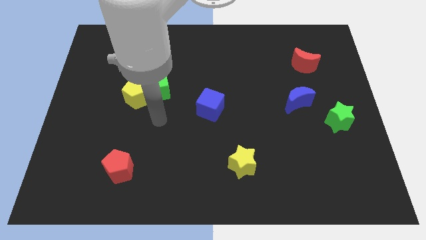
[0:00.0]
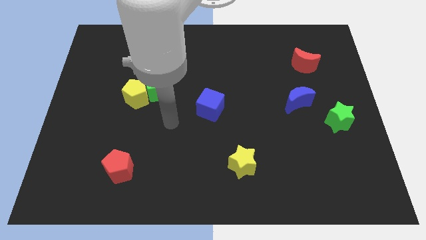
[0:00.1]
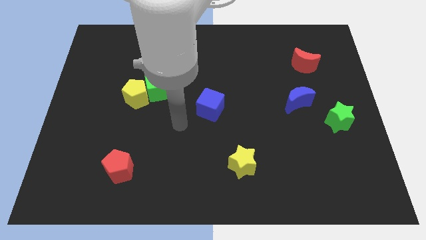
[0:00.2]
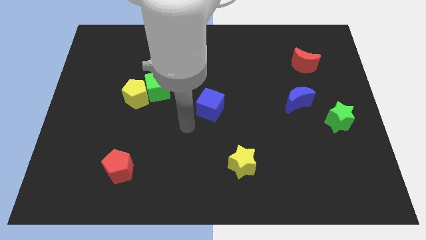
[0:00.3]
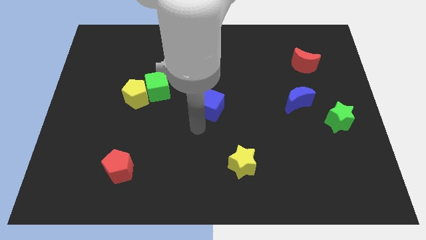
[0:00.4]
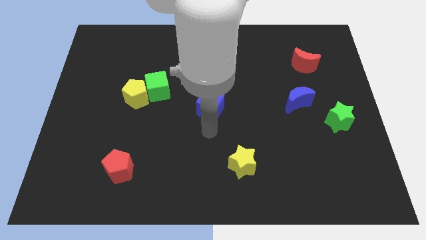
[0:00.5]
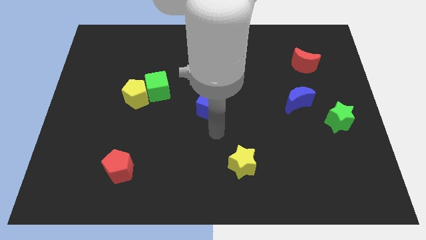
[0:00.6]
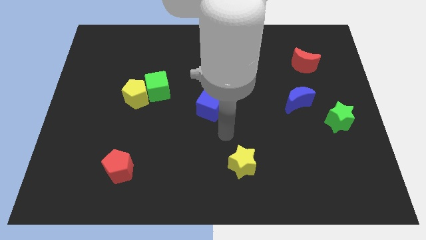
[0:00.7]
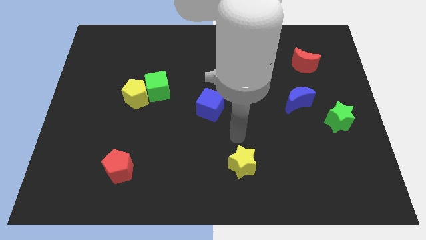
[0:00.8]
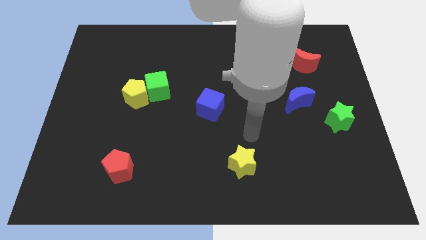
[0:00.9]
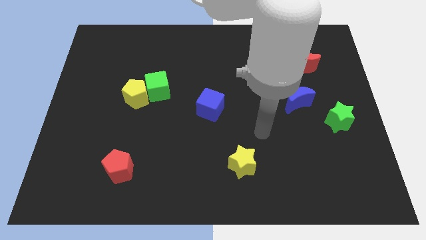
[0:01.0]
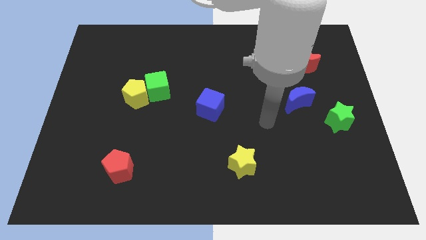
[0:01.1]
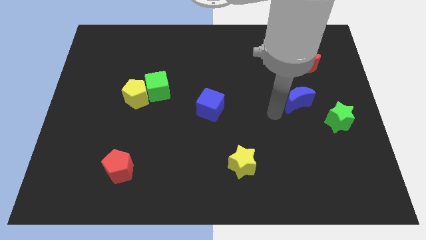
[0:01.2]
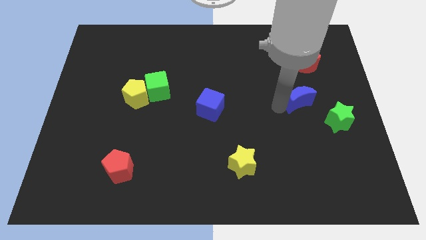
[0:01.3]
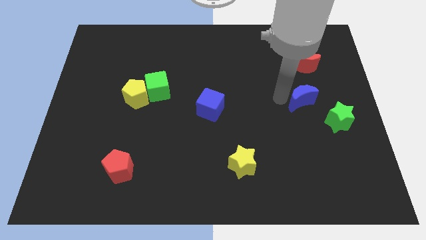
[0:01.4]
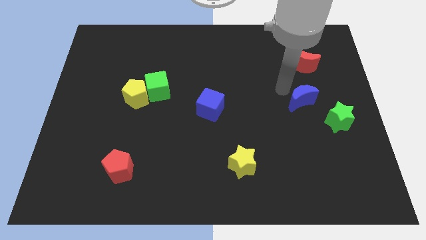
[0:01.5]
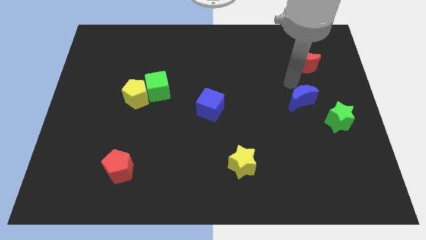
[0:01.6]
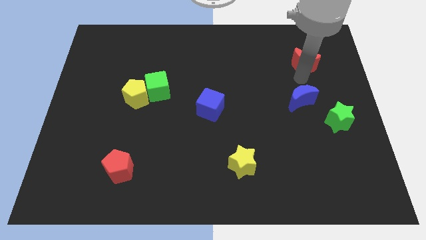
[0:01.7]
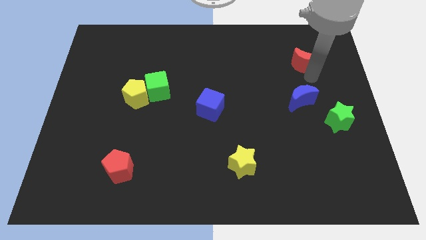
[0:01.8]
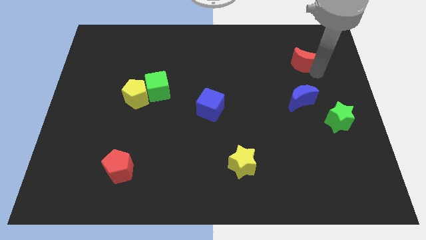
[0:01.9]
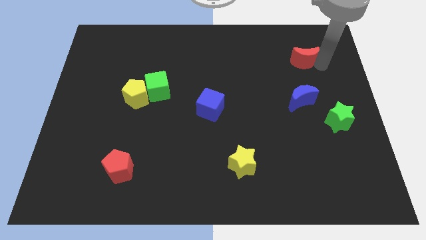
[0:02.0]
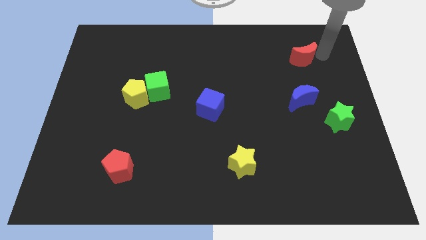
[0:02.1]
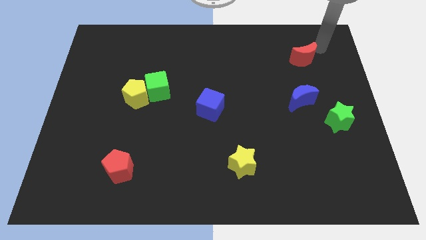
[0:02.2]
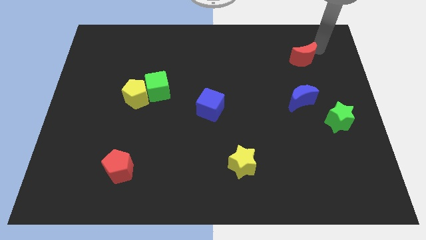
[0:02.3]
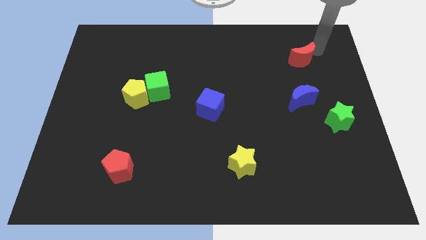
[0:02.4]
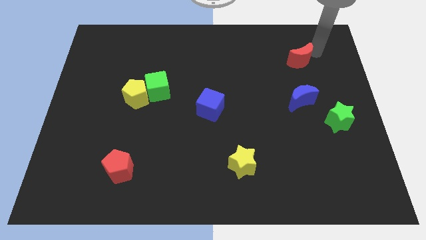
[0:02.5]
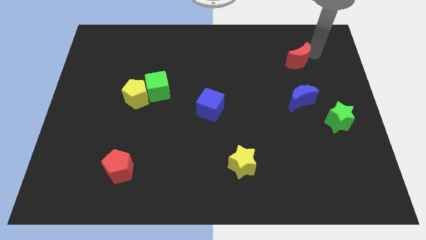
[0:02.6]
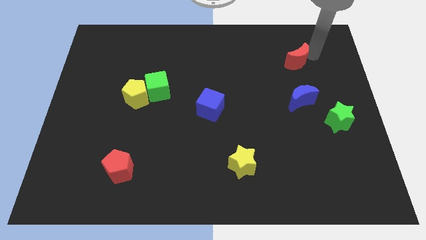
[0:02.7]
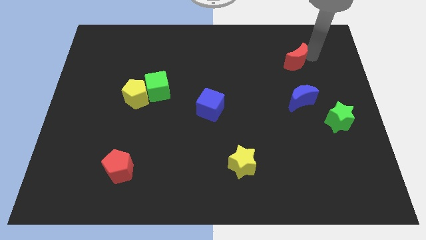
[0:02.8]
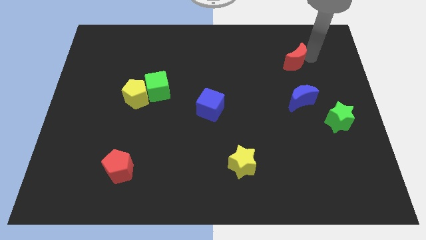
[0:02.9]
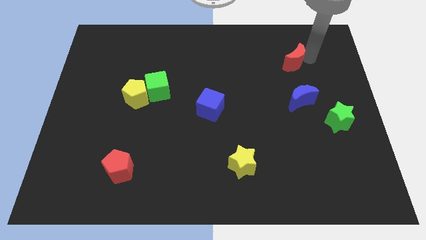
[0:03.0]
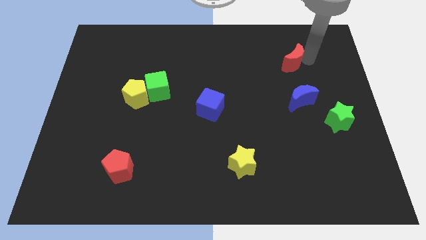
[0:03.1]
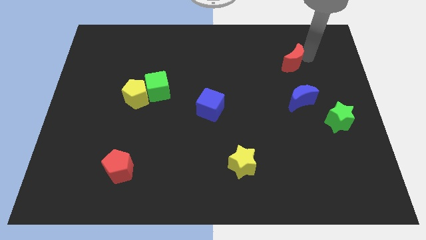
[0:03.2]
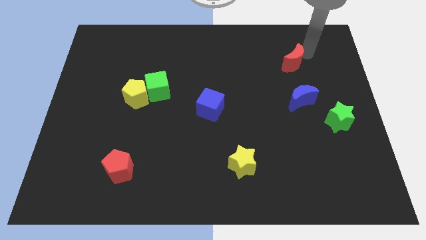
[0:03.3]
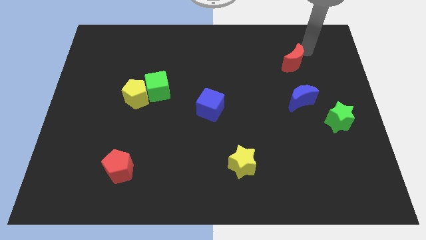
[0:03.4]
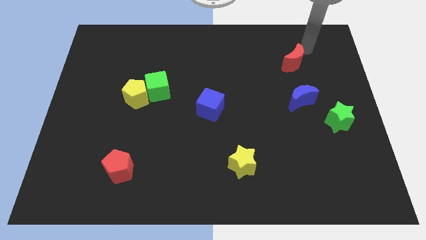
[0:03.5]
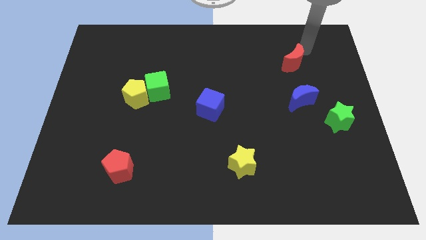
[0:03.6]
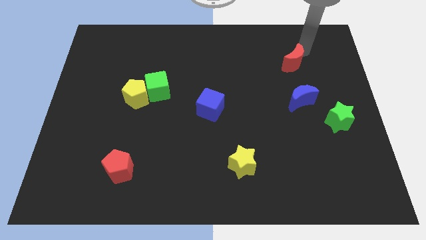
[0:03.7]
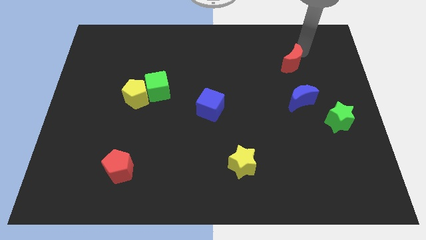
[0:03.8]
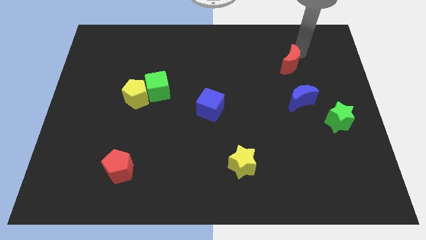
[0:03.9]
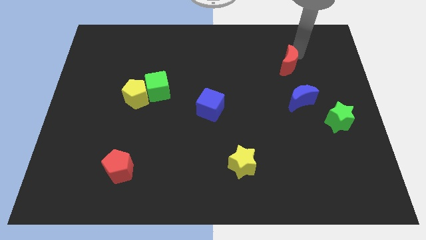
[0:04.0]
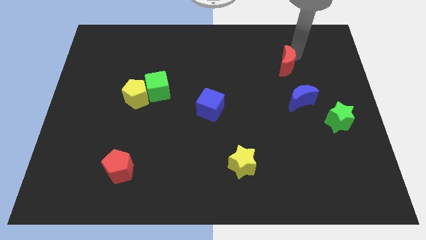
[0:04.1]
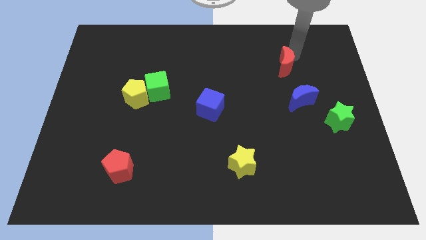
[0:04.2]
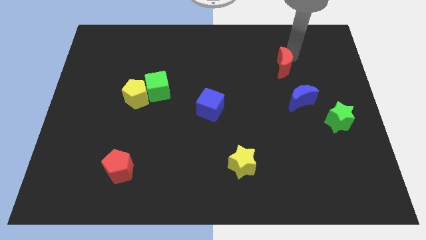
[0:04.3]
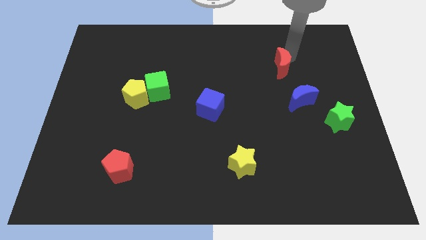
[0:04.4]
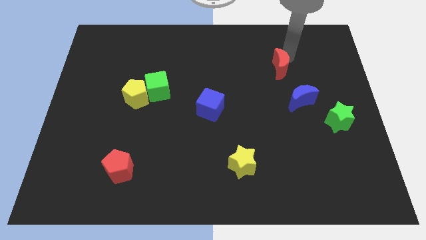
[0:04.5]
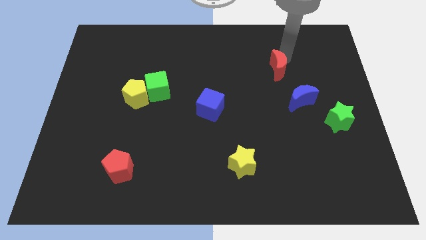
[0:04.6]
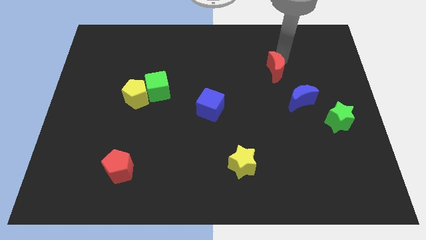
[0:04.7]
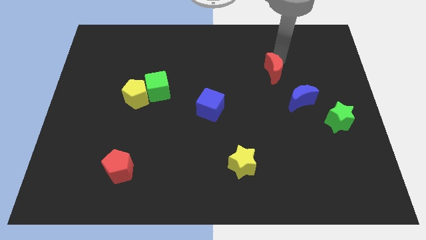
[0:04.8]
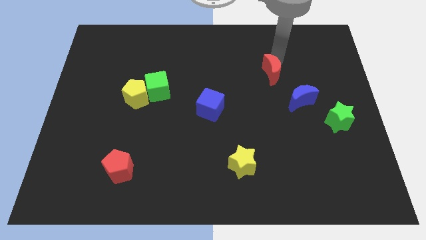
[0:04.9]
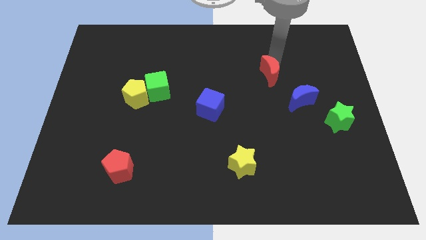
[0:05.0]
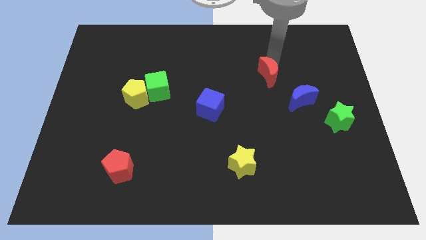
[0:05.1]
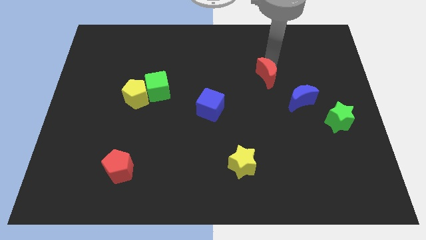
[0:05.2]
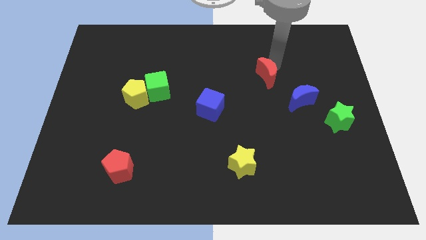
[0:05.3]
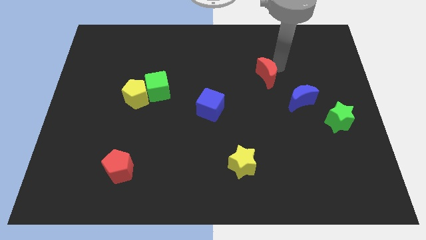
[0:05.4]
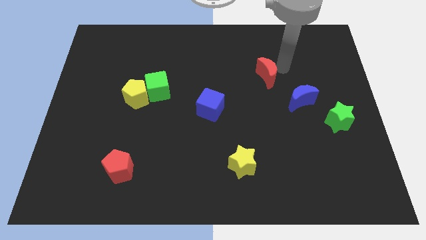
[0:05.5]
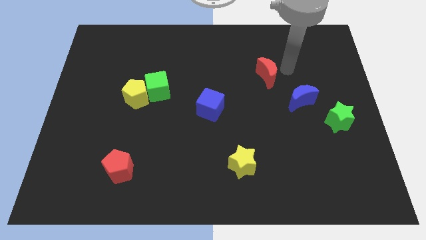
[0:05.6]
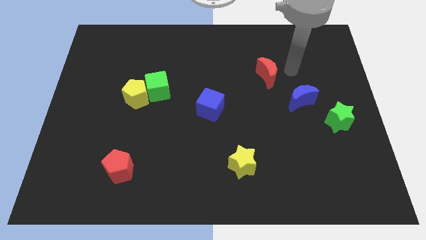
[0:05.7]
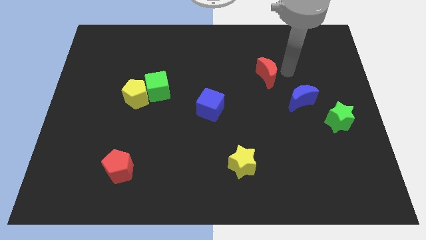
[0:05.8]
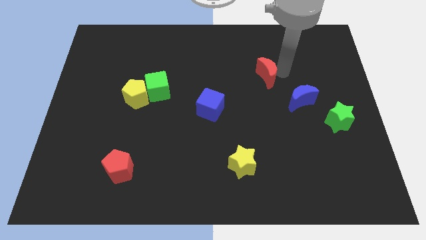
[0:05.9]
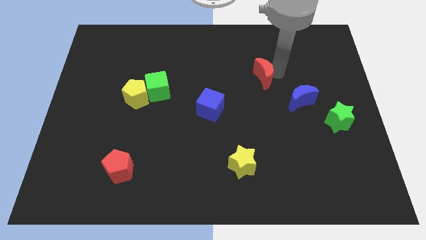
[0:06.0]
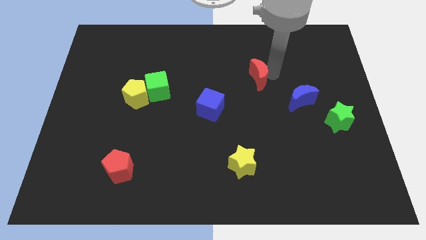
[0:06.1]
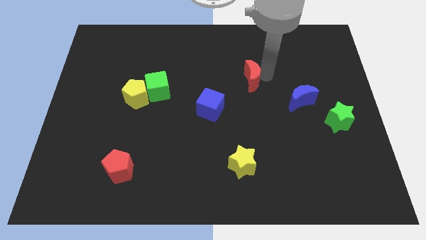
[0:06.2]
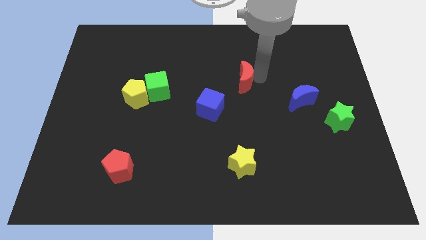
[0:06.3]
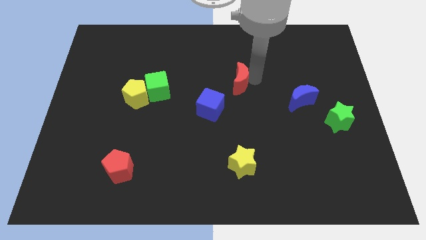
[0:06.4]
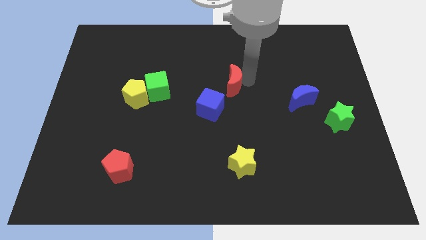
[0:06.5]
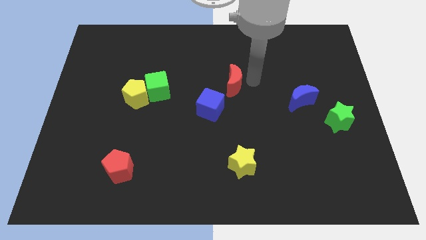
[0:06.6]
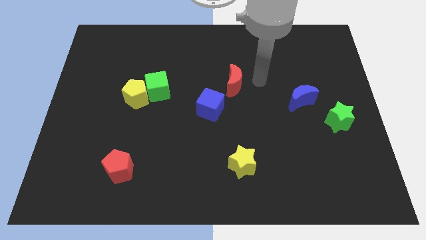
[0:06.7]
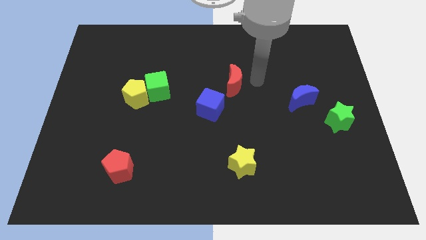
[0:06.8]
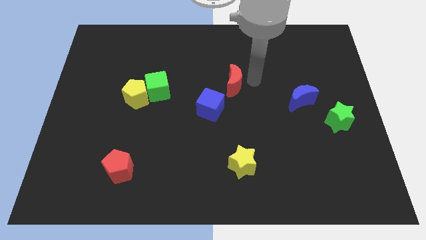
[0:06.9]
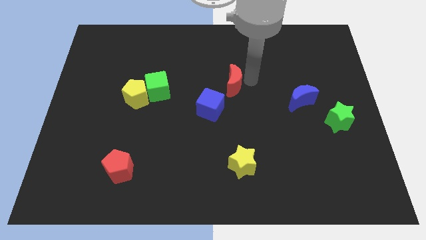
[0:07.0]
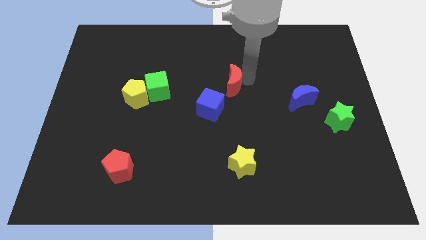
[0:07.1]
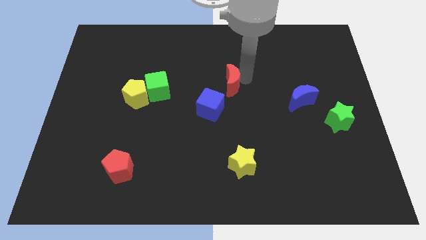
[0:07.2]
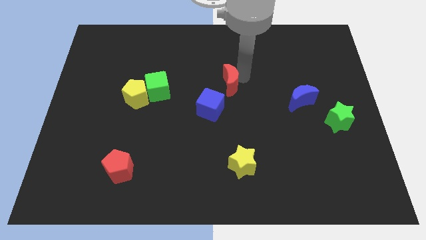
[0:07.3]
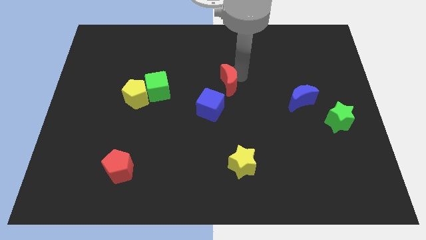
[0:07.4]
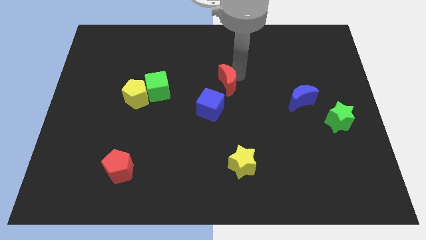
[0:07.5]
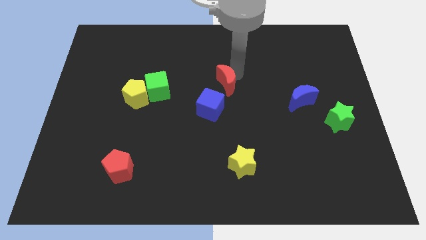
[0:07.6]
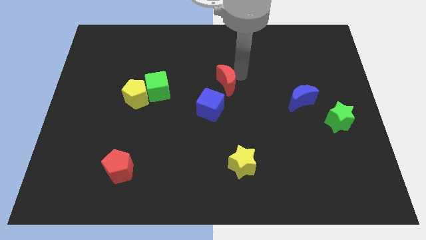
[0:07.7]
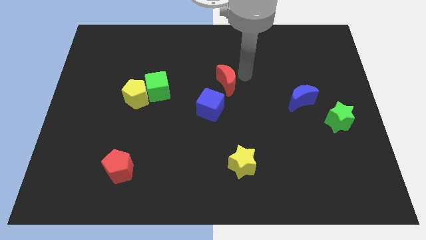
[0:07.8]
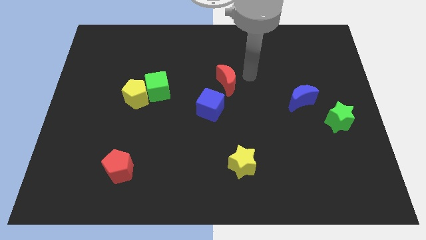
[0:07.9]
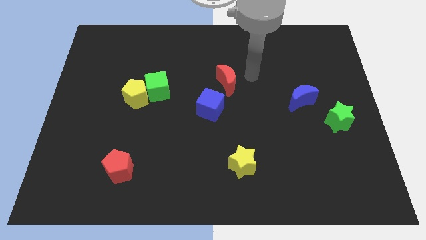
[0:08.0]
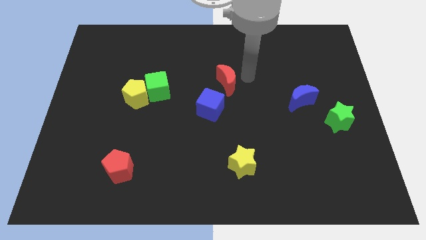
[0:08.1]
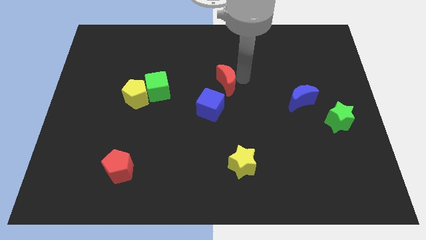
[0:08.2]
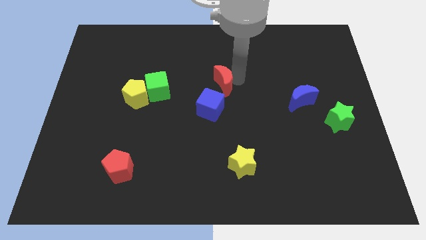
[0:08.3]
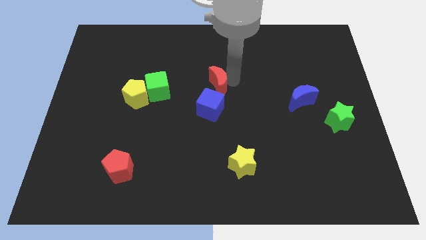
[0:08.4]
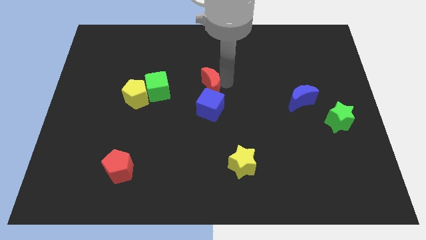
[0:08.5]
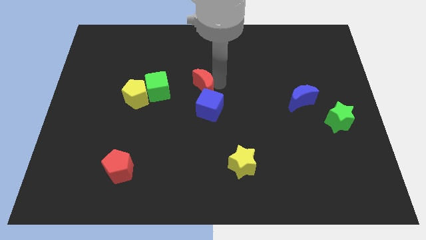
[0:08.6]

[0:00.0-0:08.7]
slide the red moon diagonally up and to the left of the blue cube
